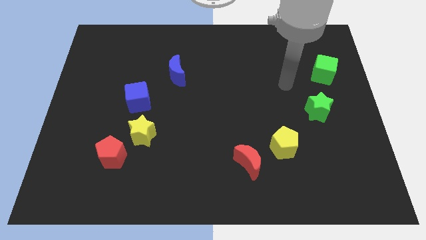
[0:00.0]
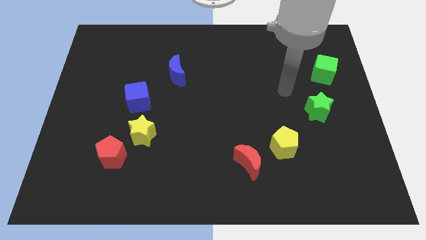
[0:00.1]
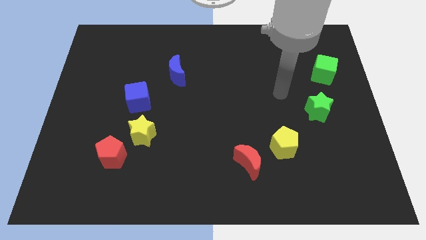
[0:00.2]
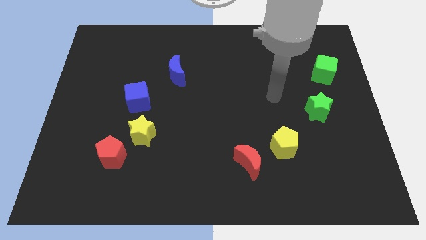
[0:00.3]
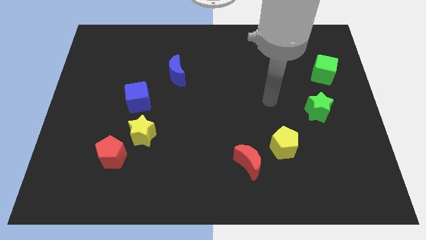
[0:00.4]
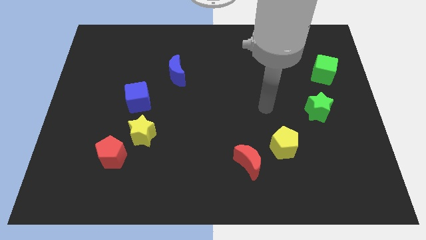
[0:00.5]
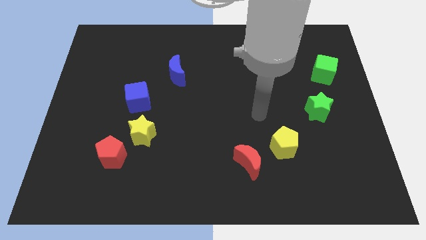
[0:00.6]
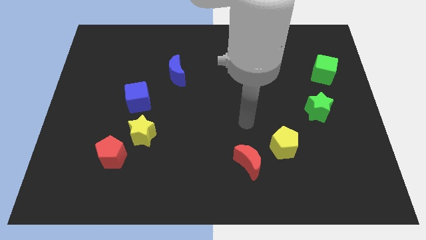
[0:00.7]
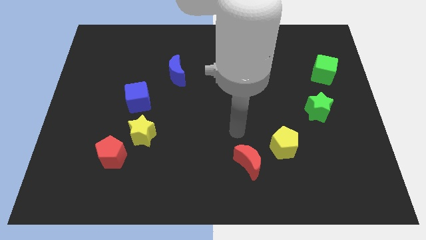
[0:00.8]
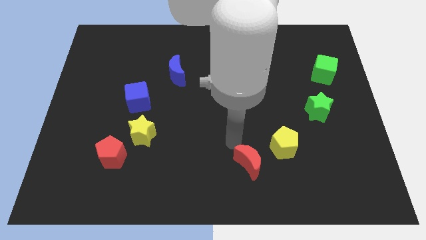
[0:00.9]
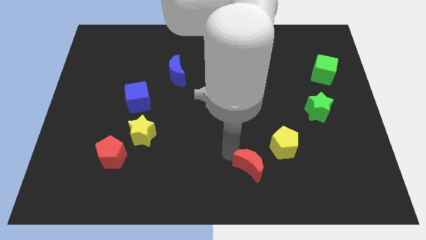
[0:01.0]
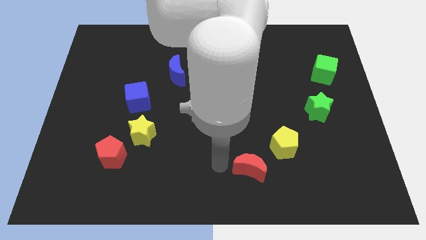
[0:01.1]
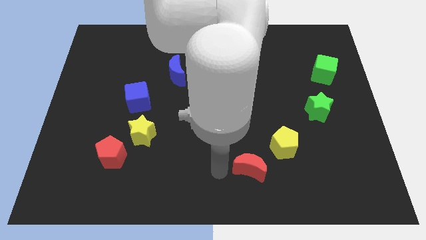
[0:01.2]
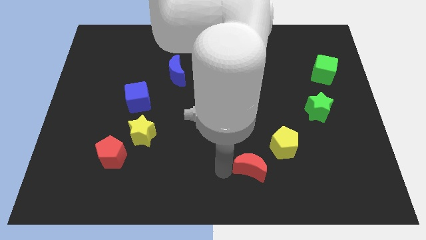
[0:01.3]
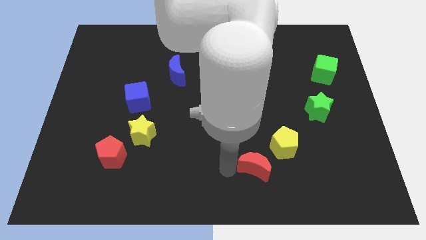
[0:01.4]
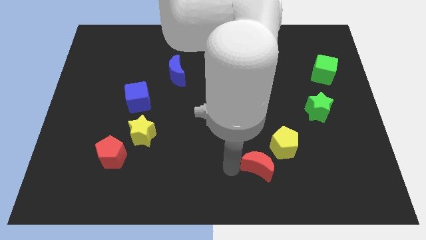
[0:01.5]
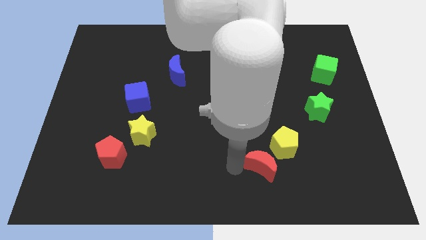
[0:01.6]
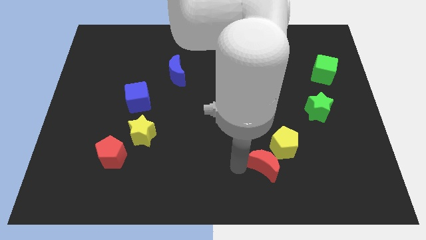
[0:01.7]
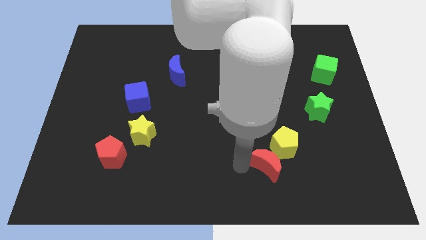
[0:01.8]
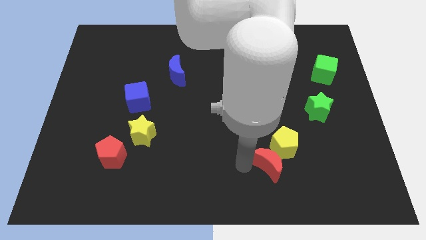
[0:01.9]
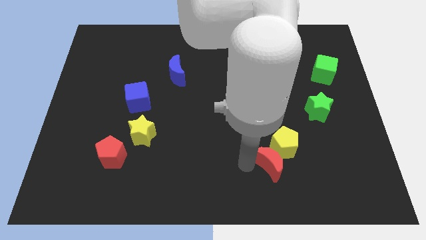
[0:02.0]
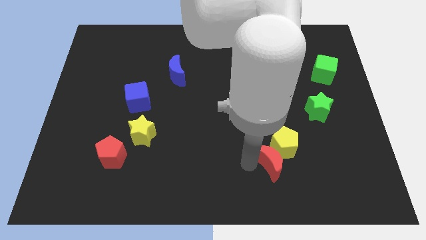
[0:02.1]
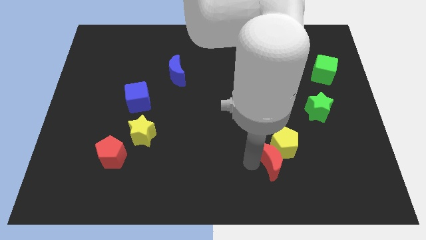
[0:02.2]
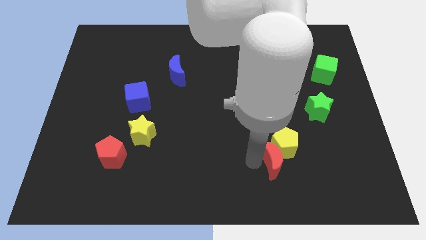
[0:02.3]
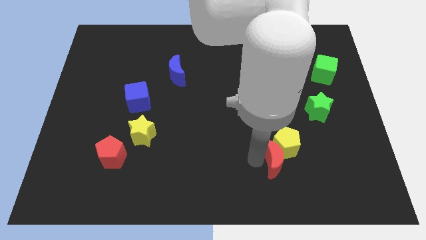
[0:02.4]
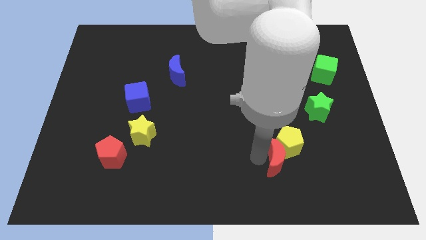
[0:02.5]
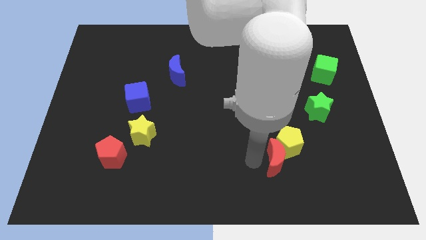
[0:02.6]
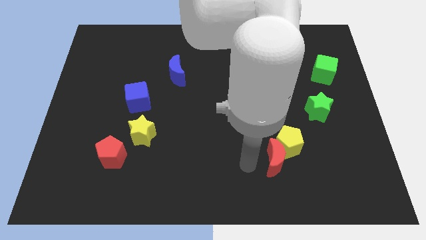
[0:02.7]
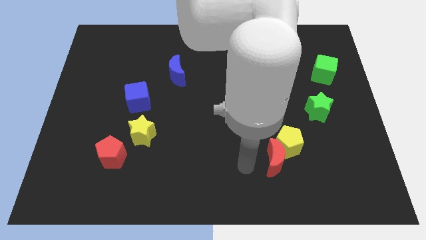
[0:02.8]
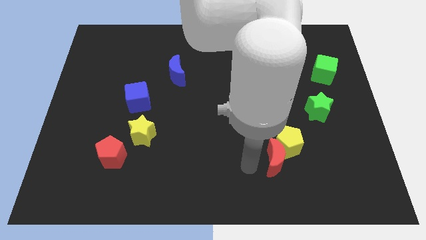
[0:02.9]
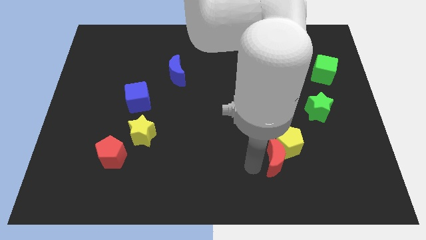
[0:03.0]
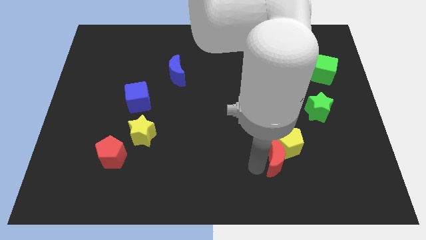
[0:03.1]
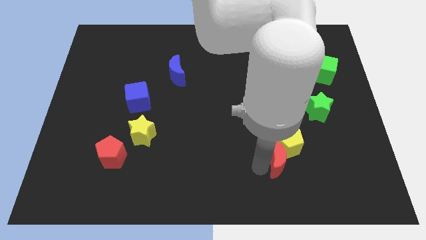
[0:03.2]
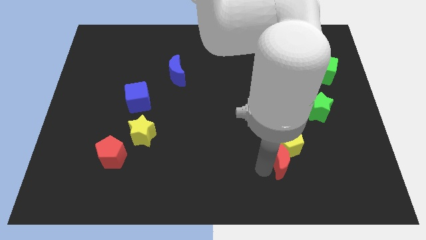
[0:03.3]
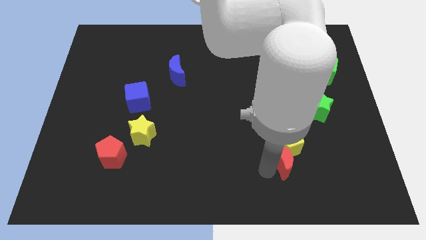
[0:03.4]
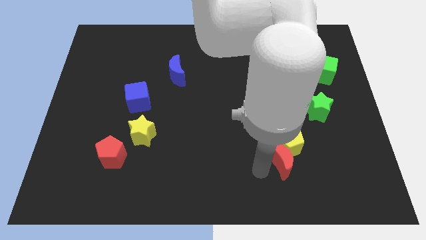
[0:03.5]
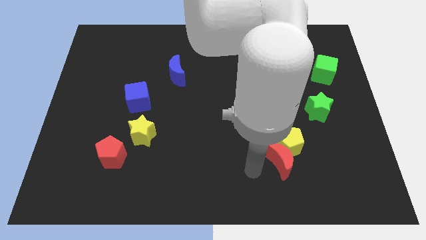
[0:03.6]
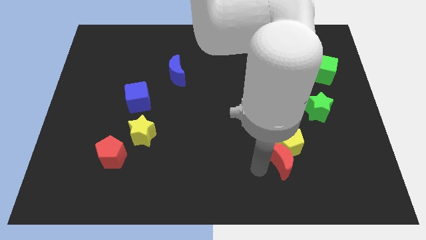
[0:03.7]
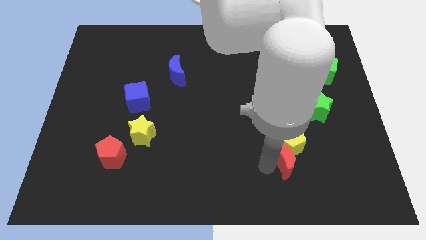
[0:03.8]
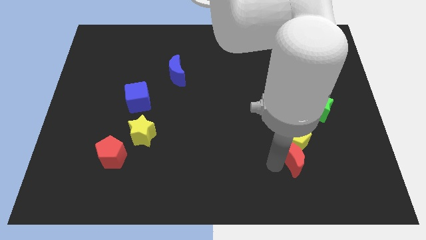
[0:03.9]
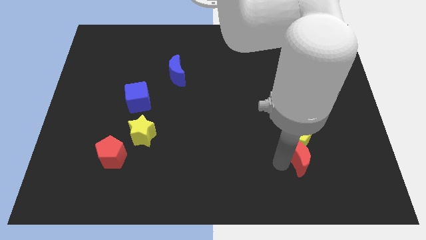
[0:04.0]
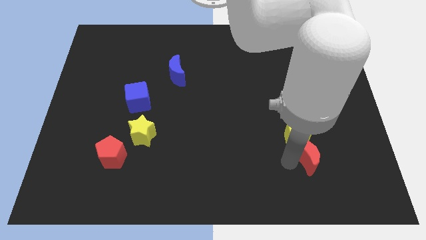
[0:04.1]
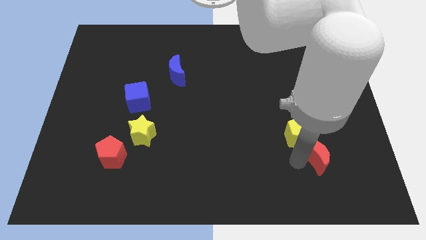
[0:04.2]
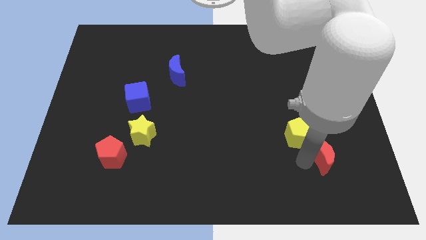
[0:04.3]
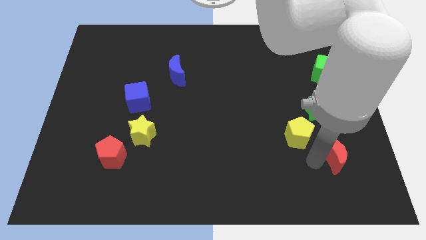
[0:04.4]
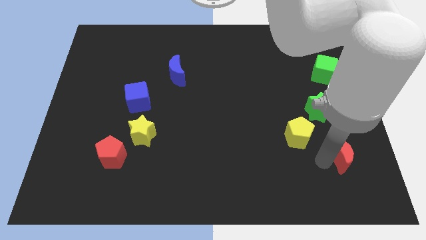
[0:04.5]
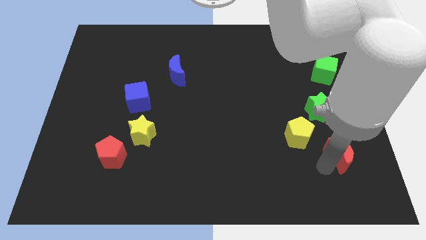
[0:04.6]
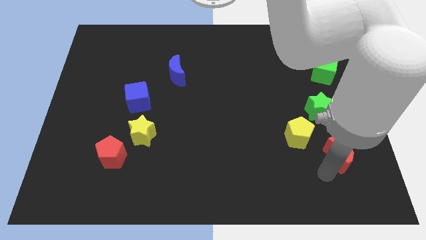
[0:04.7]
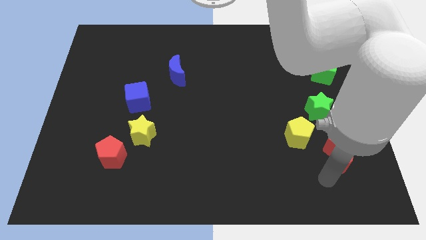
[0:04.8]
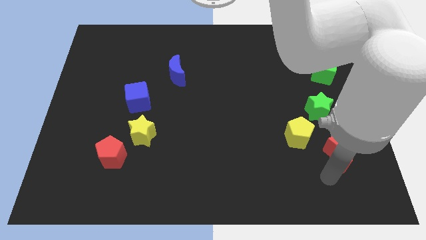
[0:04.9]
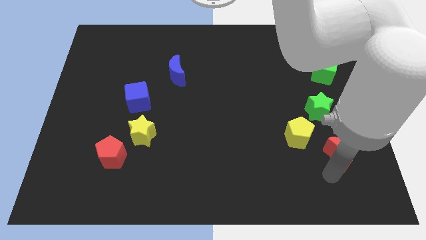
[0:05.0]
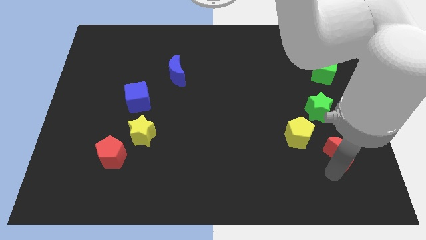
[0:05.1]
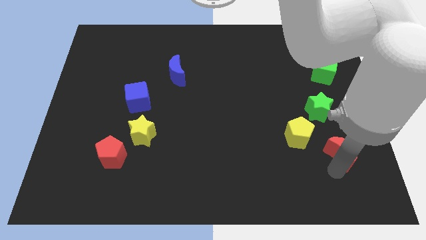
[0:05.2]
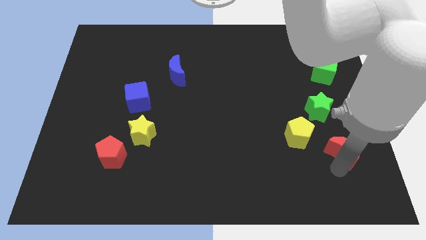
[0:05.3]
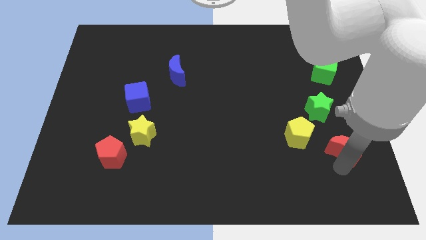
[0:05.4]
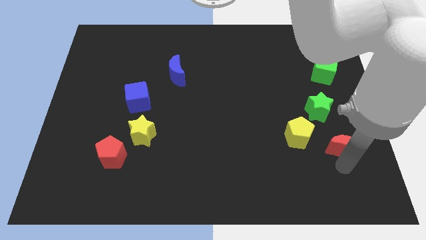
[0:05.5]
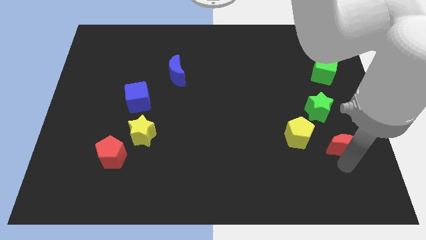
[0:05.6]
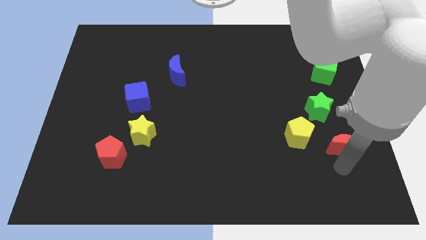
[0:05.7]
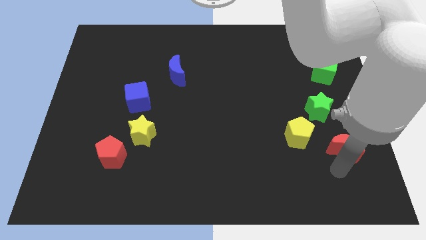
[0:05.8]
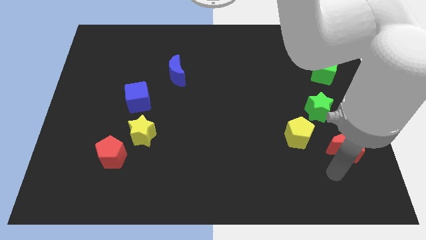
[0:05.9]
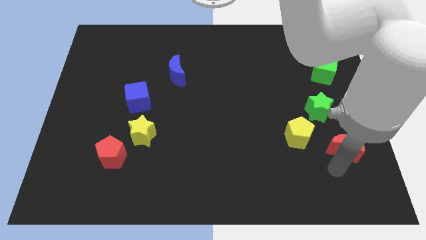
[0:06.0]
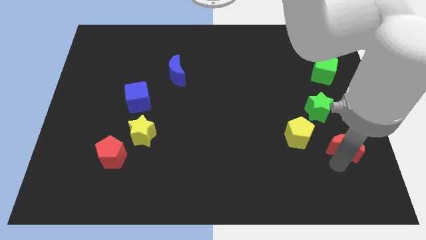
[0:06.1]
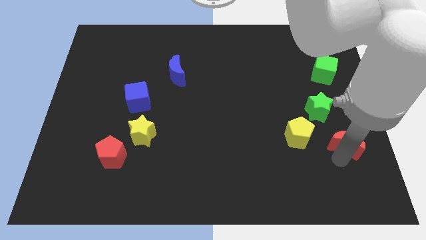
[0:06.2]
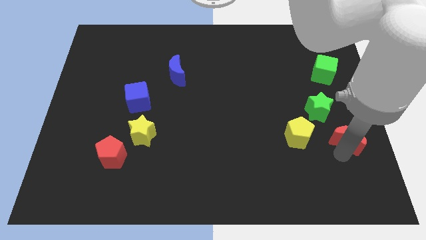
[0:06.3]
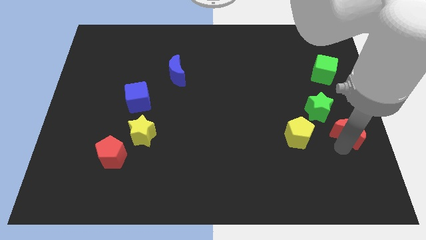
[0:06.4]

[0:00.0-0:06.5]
slide the red moon to the center right
